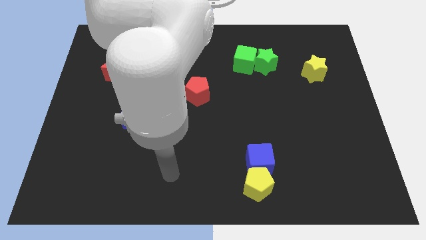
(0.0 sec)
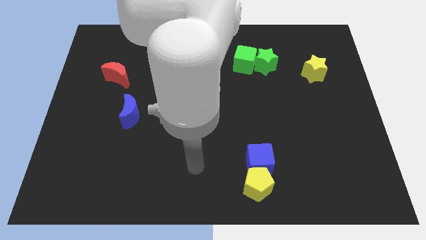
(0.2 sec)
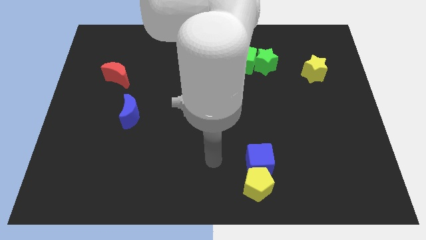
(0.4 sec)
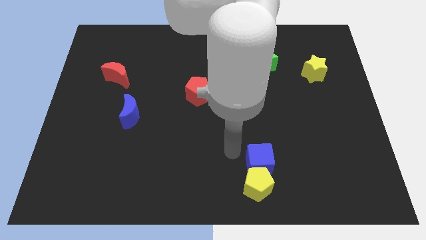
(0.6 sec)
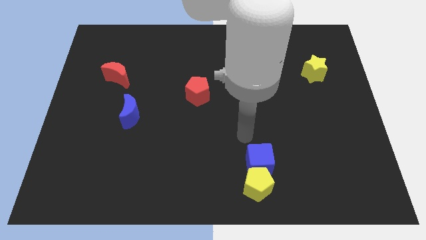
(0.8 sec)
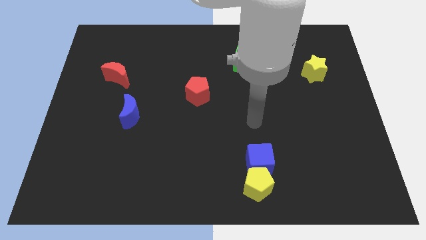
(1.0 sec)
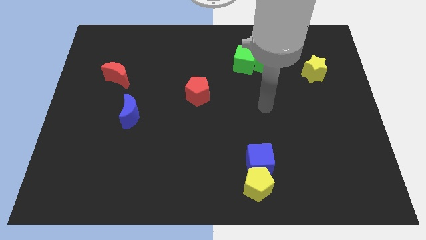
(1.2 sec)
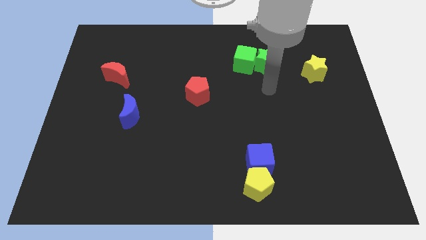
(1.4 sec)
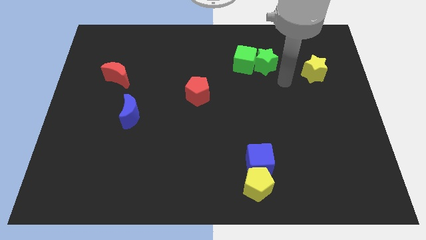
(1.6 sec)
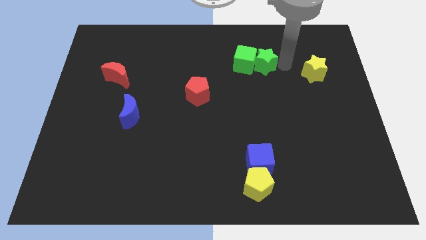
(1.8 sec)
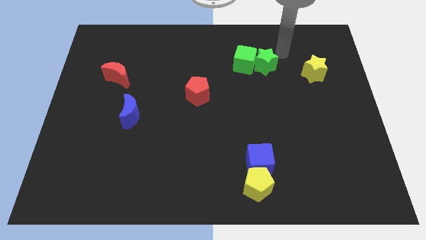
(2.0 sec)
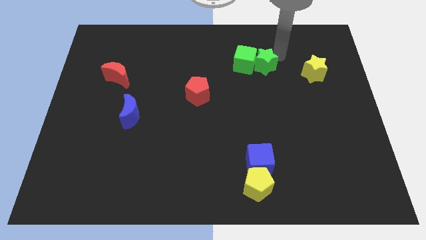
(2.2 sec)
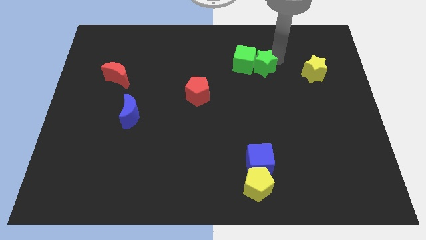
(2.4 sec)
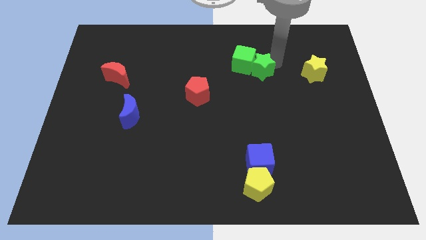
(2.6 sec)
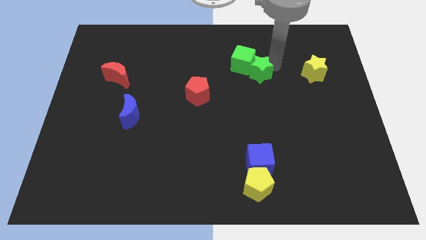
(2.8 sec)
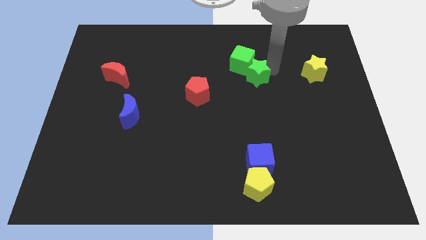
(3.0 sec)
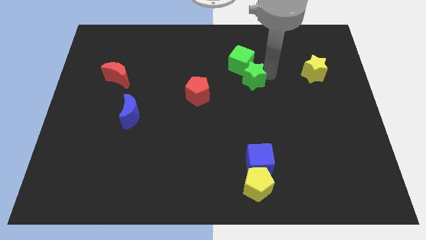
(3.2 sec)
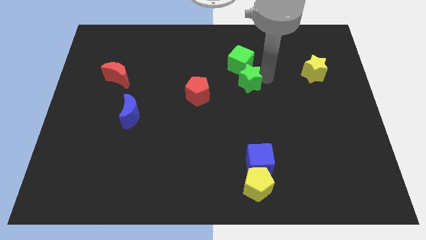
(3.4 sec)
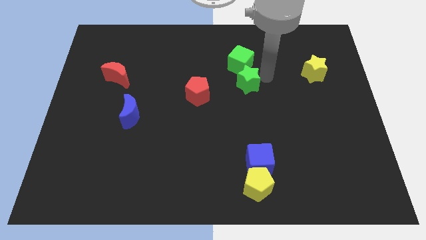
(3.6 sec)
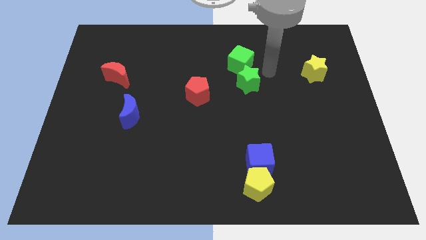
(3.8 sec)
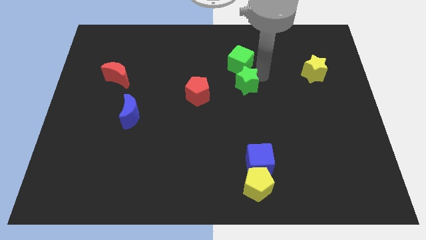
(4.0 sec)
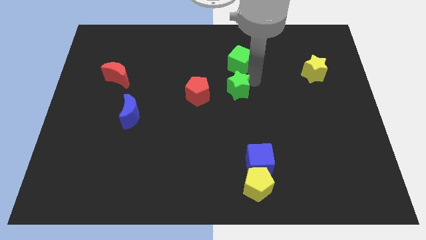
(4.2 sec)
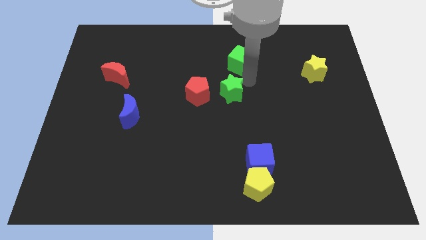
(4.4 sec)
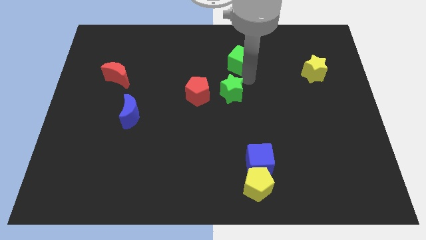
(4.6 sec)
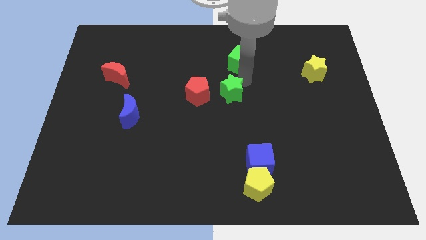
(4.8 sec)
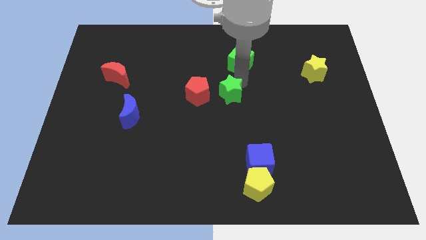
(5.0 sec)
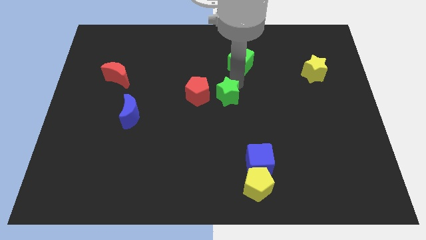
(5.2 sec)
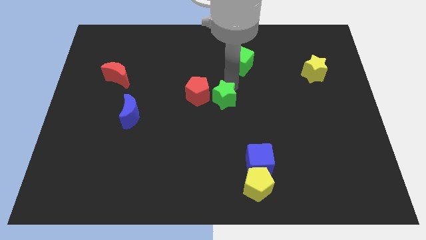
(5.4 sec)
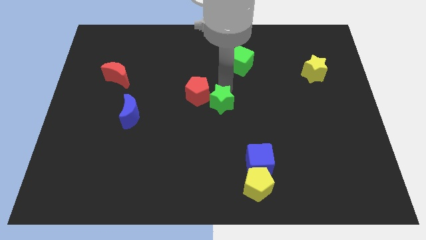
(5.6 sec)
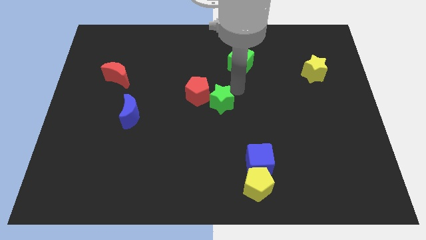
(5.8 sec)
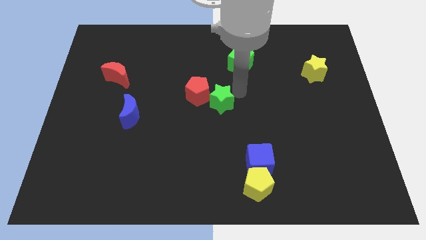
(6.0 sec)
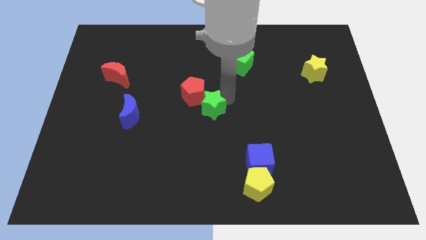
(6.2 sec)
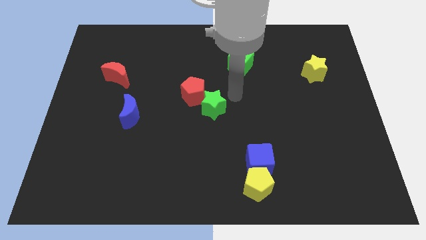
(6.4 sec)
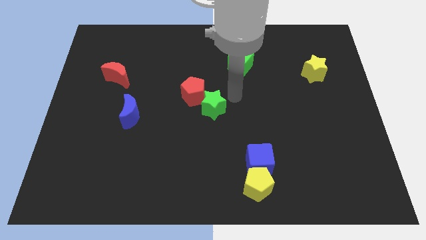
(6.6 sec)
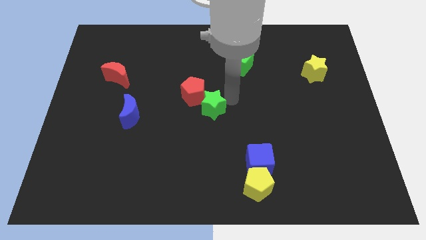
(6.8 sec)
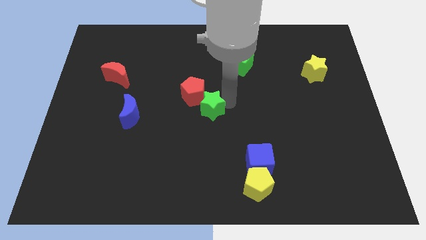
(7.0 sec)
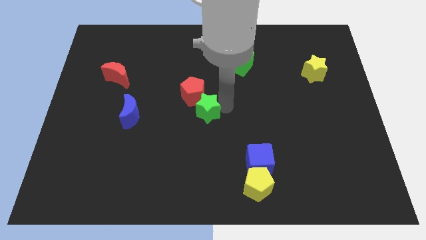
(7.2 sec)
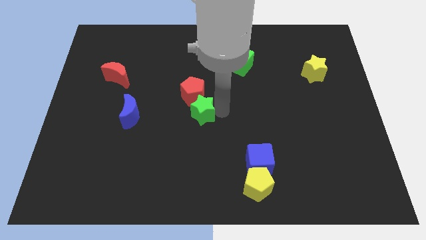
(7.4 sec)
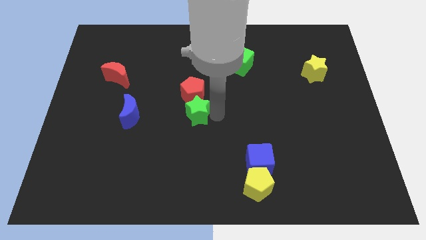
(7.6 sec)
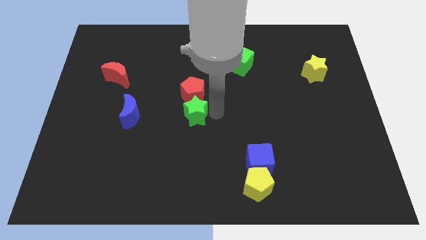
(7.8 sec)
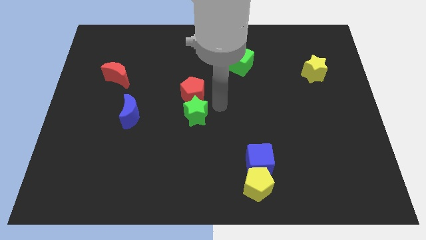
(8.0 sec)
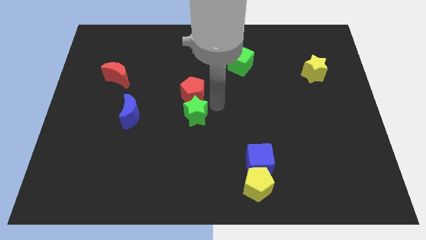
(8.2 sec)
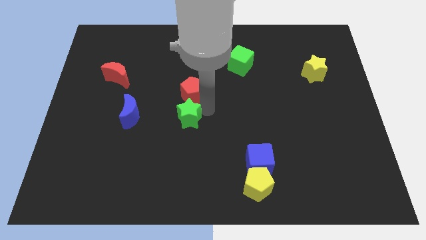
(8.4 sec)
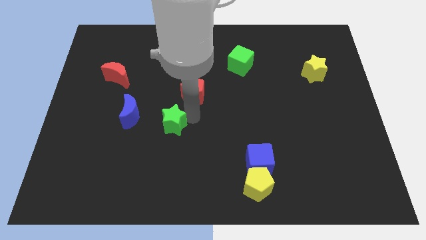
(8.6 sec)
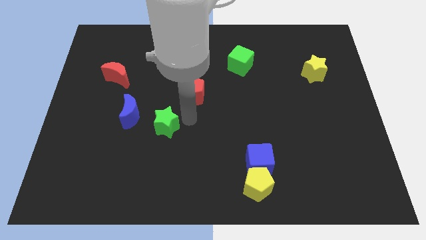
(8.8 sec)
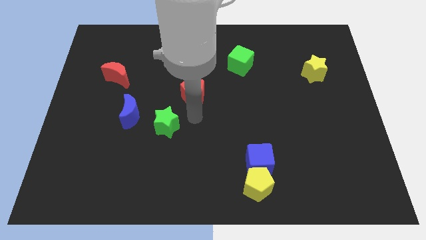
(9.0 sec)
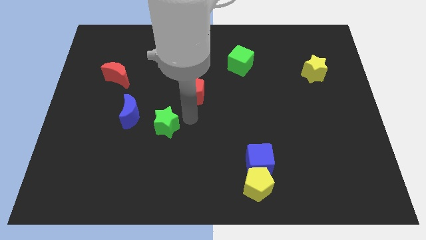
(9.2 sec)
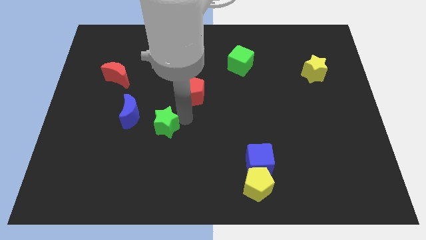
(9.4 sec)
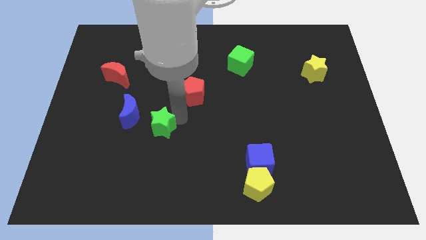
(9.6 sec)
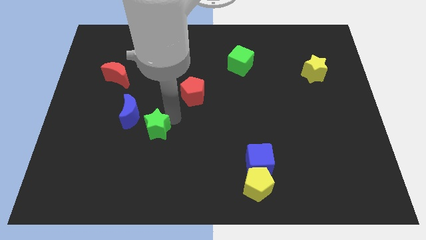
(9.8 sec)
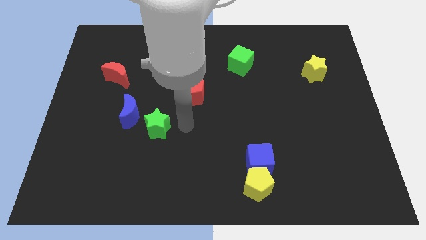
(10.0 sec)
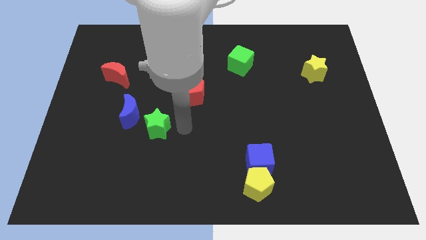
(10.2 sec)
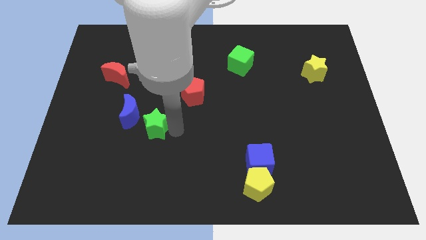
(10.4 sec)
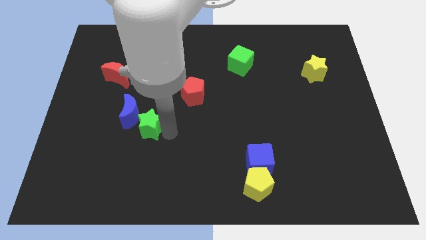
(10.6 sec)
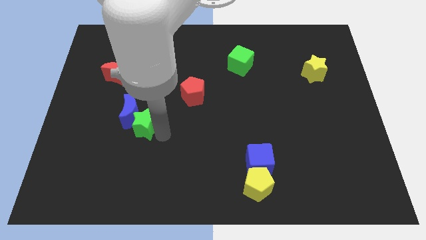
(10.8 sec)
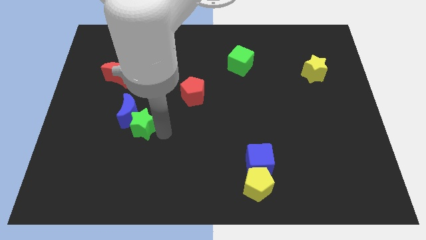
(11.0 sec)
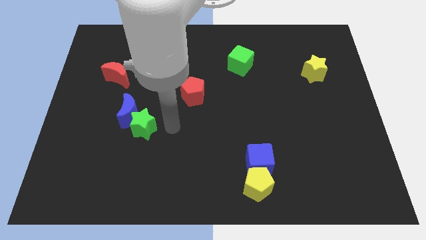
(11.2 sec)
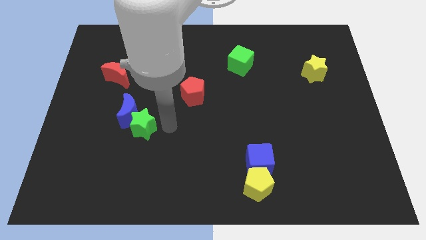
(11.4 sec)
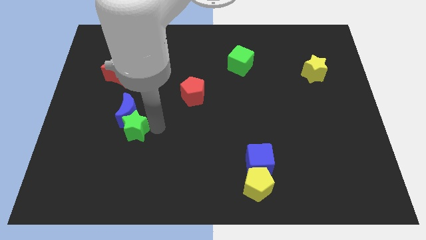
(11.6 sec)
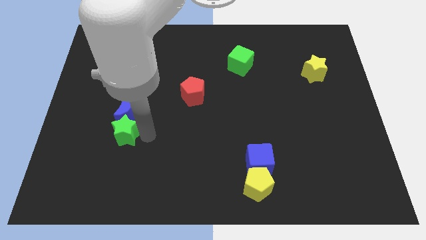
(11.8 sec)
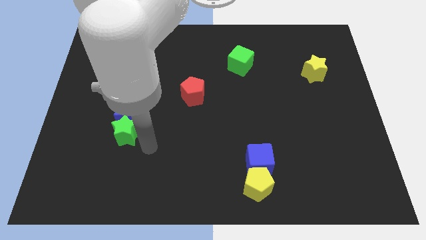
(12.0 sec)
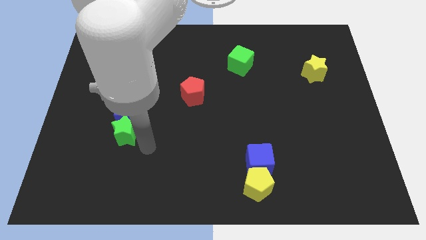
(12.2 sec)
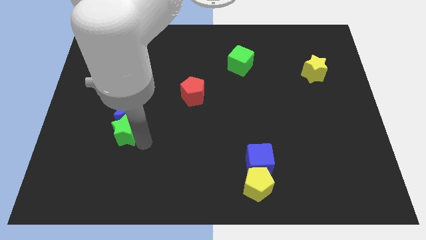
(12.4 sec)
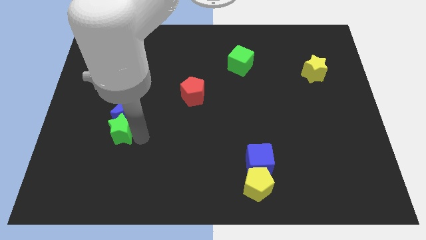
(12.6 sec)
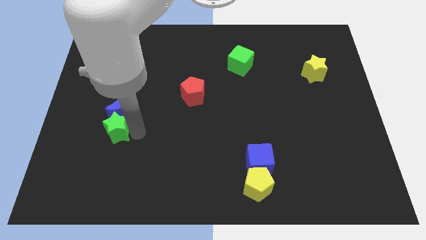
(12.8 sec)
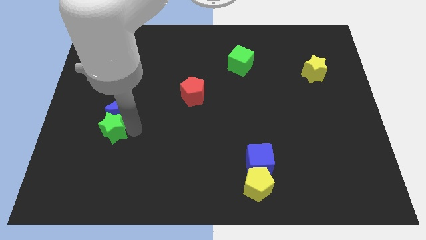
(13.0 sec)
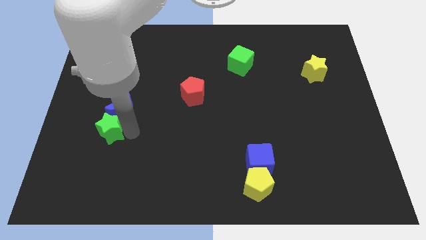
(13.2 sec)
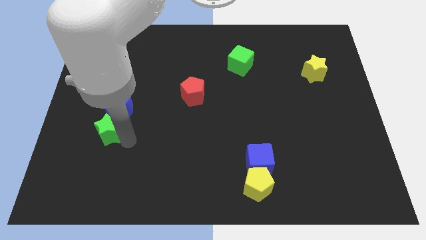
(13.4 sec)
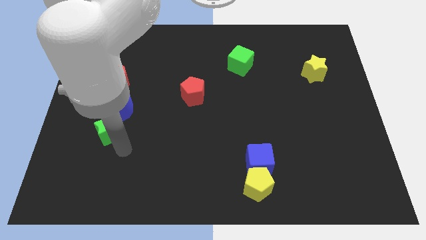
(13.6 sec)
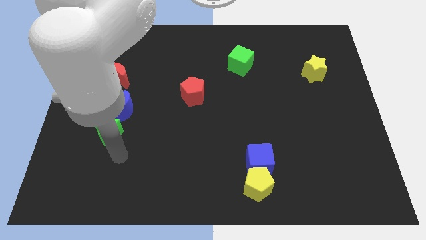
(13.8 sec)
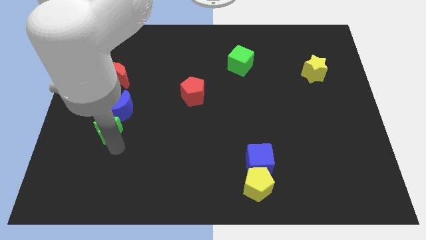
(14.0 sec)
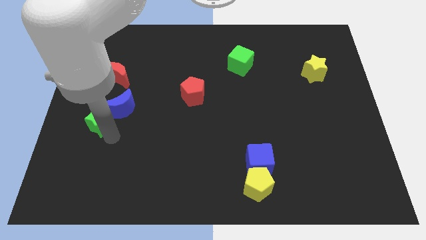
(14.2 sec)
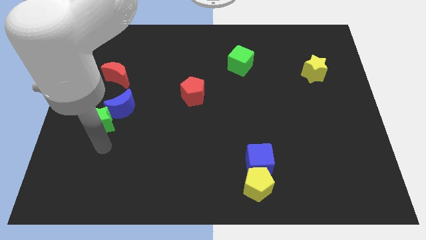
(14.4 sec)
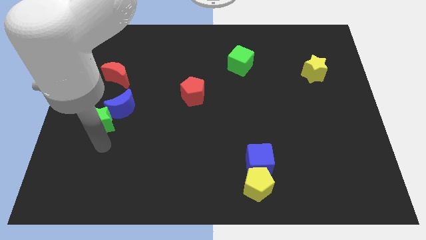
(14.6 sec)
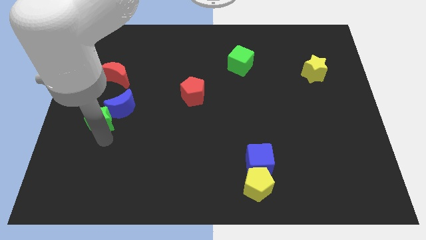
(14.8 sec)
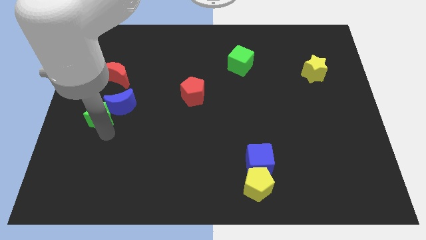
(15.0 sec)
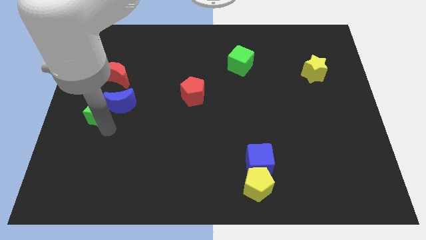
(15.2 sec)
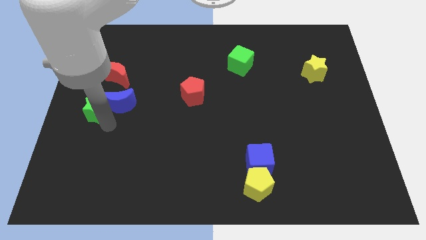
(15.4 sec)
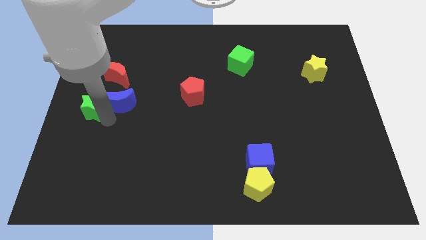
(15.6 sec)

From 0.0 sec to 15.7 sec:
slide the green star to the bottom left of the red moon
